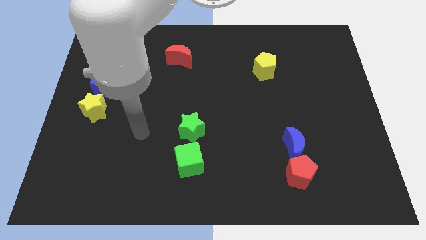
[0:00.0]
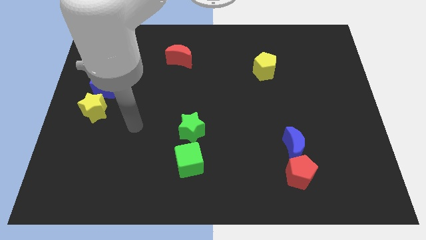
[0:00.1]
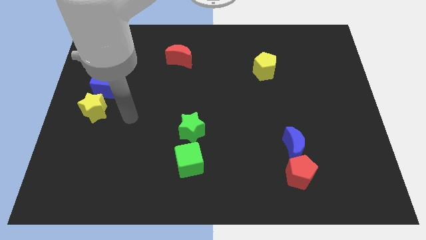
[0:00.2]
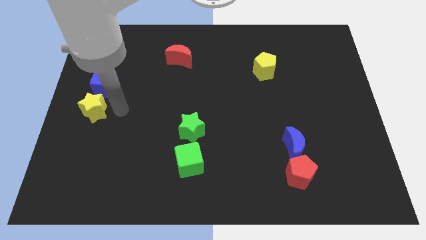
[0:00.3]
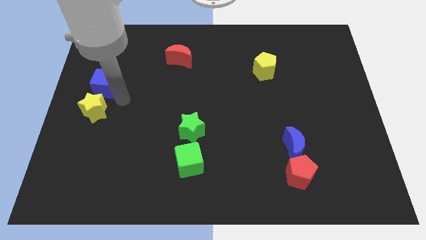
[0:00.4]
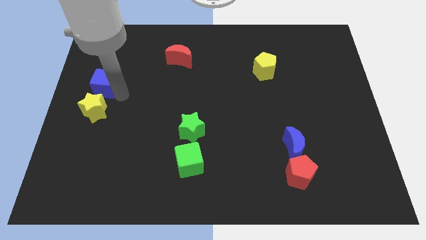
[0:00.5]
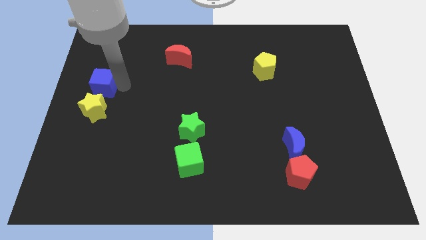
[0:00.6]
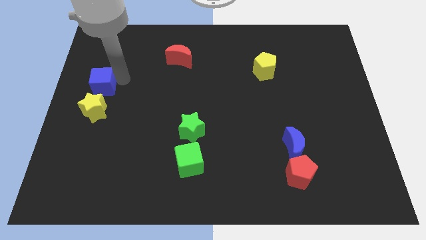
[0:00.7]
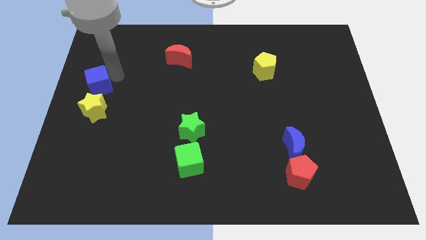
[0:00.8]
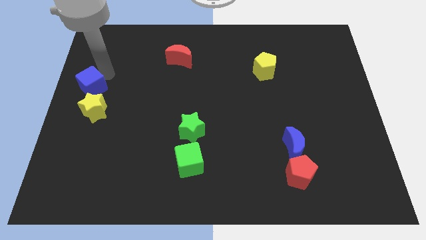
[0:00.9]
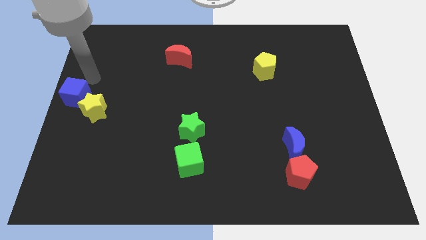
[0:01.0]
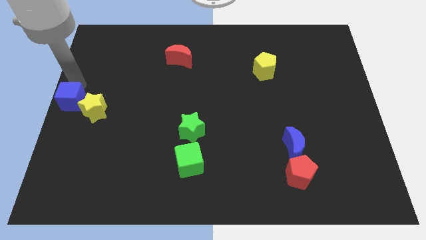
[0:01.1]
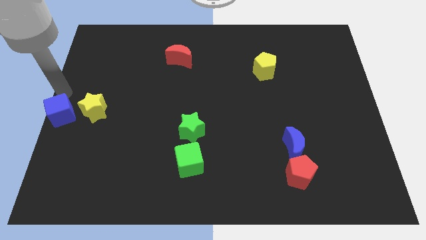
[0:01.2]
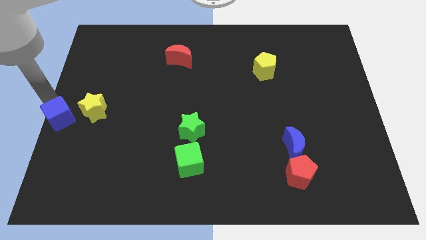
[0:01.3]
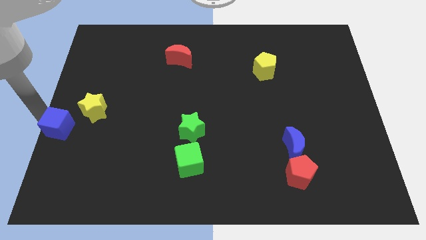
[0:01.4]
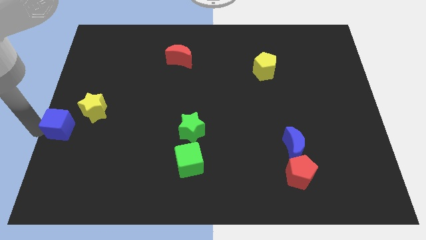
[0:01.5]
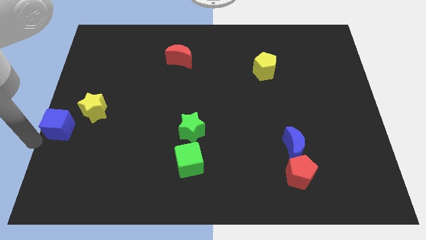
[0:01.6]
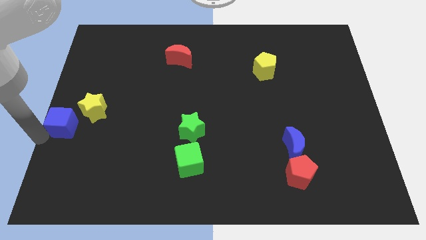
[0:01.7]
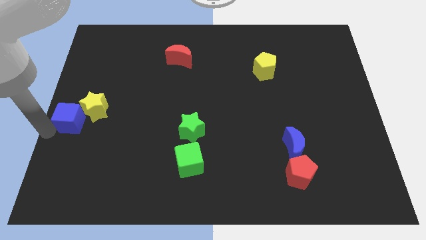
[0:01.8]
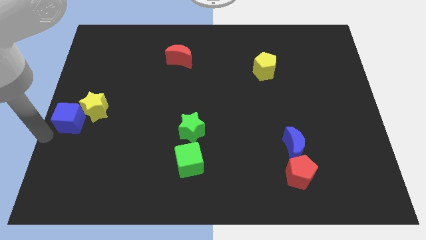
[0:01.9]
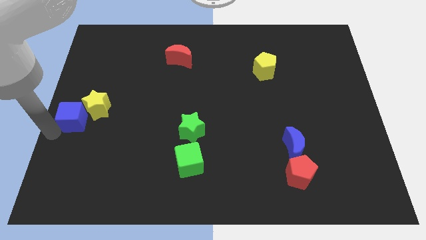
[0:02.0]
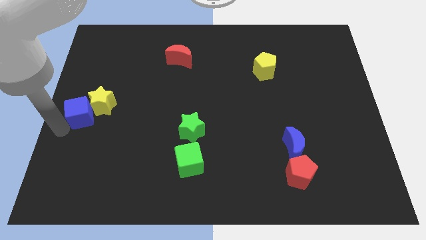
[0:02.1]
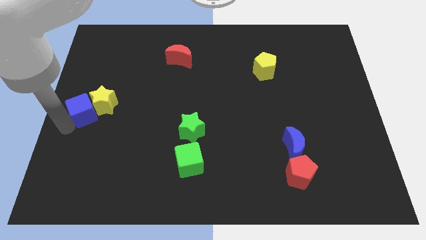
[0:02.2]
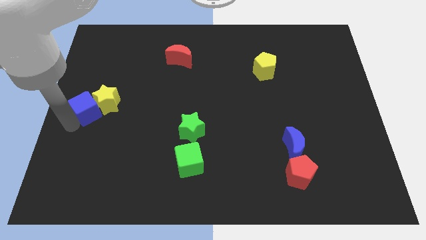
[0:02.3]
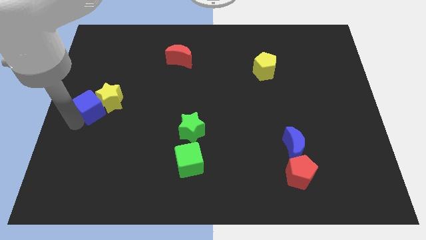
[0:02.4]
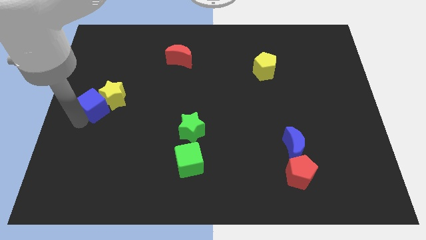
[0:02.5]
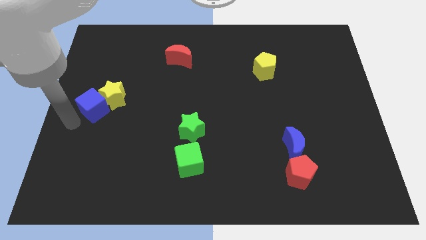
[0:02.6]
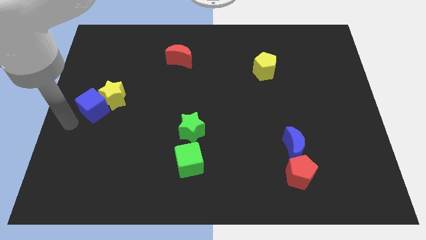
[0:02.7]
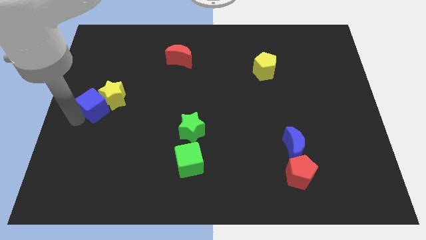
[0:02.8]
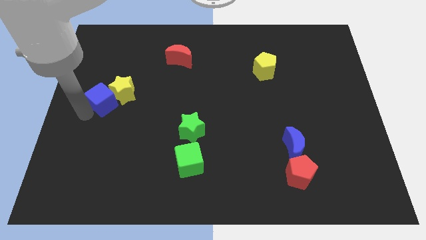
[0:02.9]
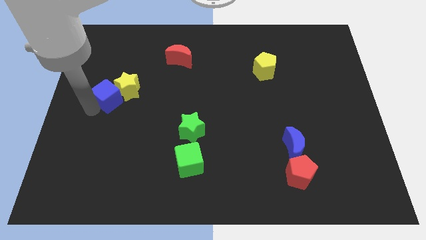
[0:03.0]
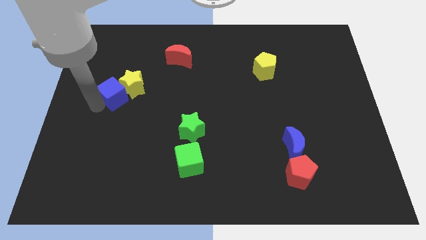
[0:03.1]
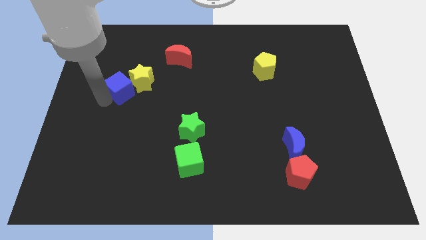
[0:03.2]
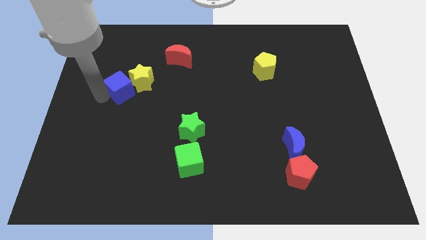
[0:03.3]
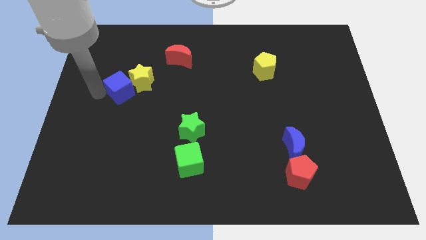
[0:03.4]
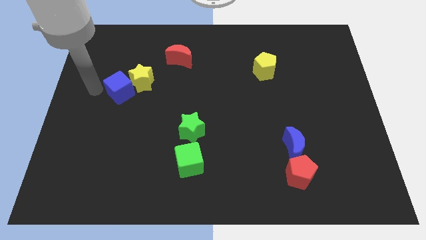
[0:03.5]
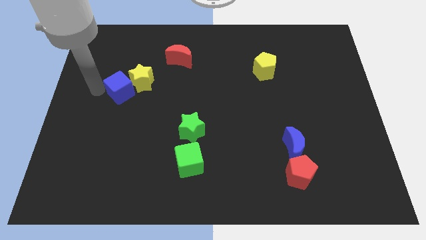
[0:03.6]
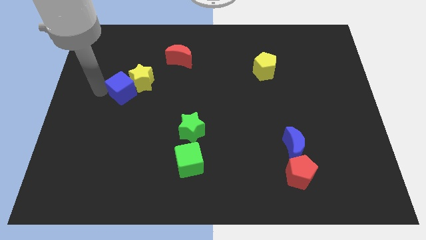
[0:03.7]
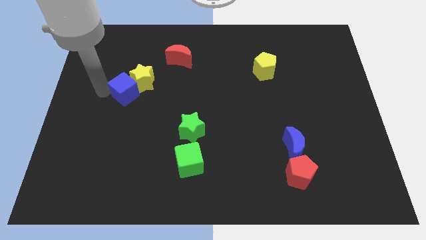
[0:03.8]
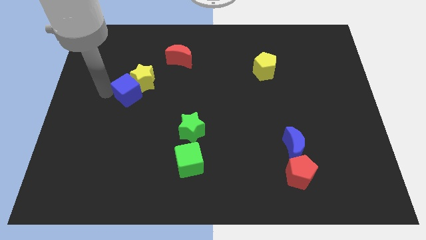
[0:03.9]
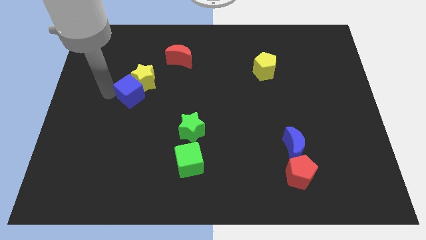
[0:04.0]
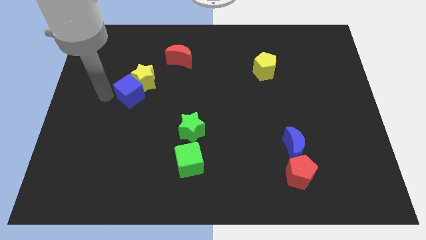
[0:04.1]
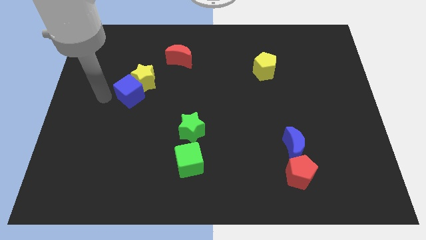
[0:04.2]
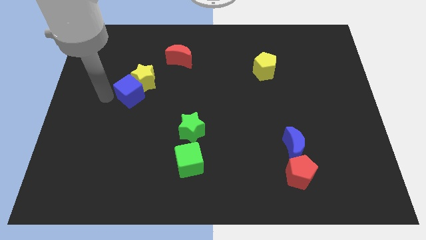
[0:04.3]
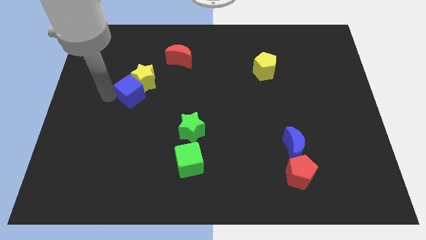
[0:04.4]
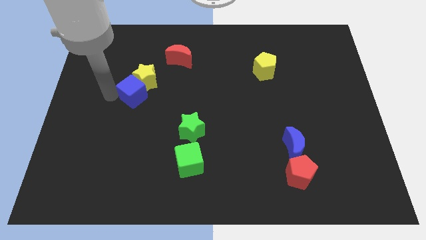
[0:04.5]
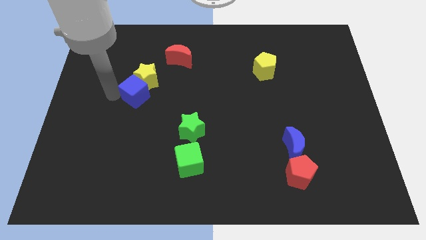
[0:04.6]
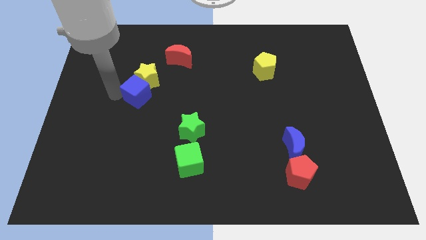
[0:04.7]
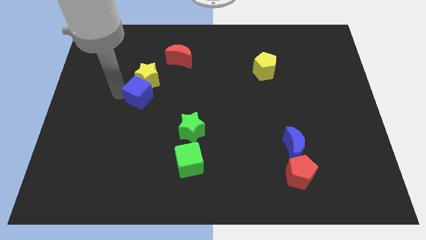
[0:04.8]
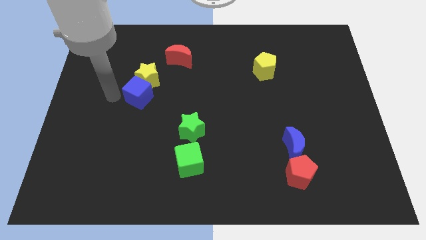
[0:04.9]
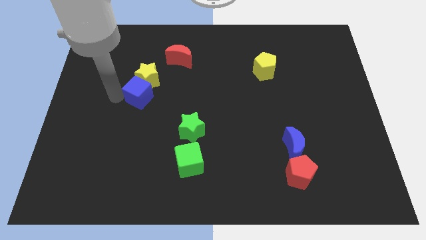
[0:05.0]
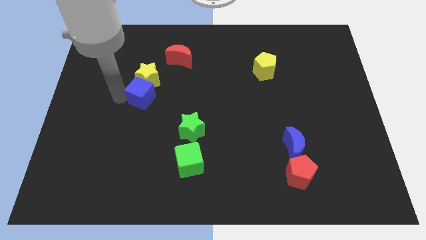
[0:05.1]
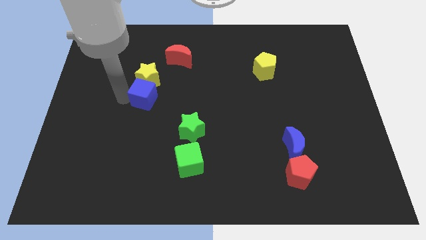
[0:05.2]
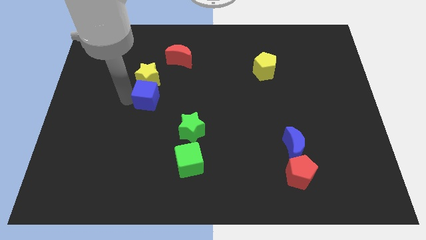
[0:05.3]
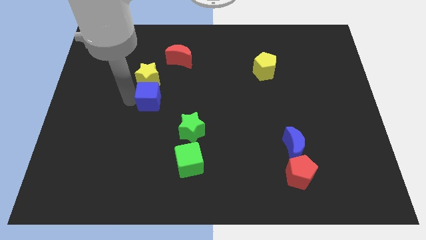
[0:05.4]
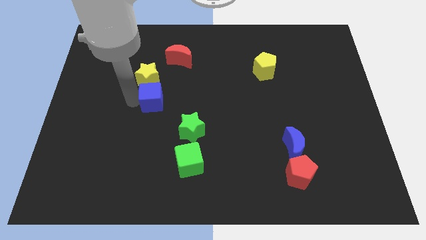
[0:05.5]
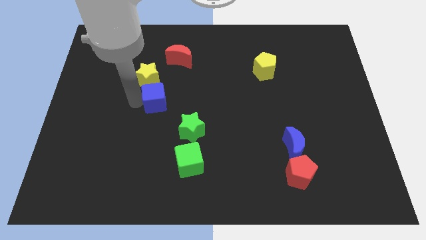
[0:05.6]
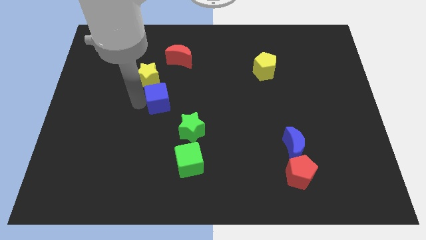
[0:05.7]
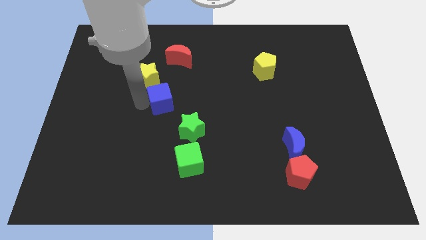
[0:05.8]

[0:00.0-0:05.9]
move the blue cube to the center of the board
